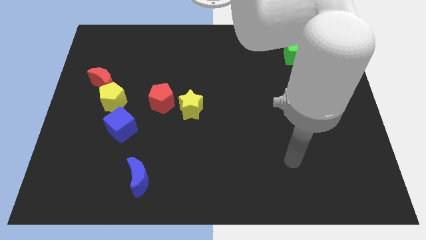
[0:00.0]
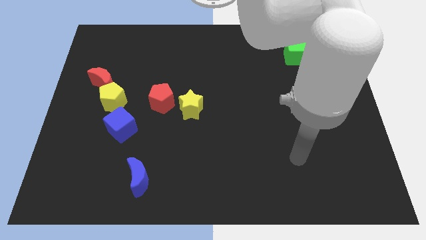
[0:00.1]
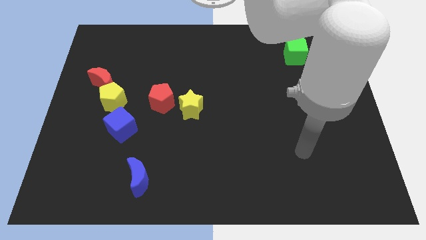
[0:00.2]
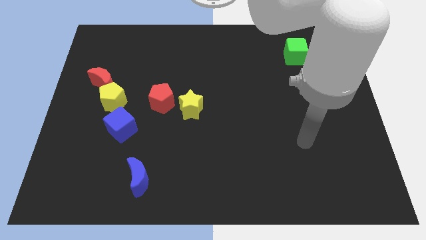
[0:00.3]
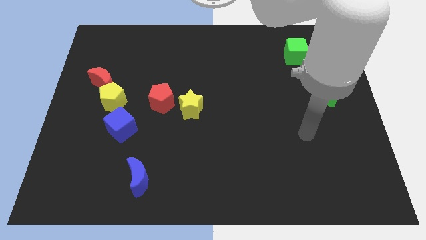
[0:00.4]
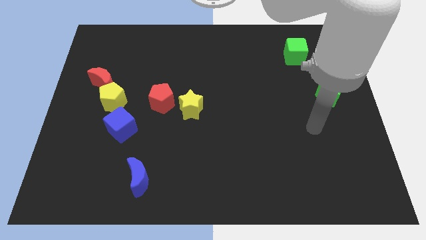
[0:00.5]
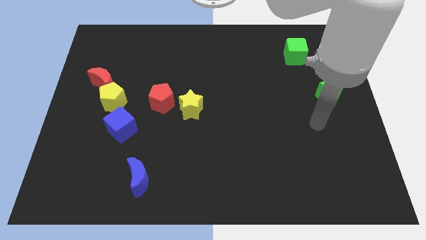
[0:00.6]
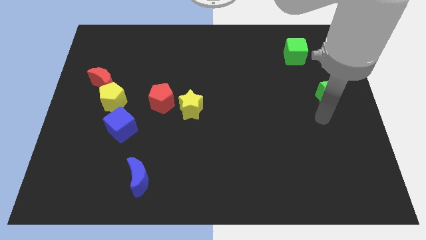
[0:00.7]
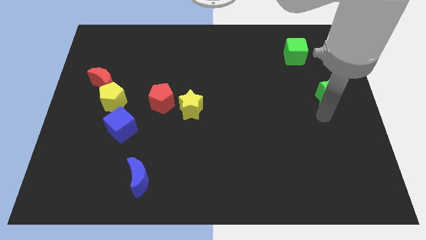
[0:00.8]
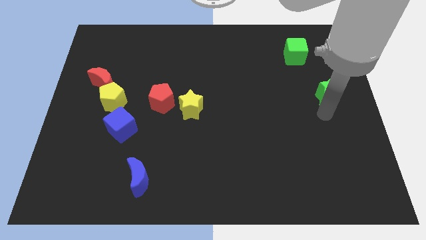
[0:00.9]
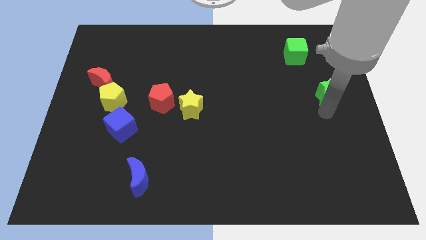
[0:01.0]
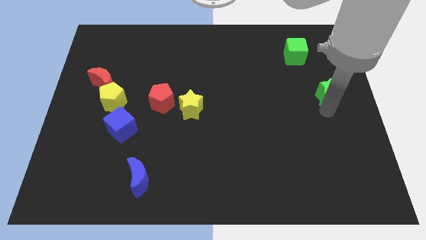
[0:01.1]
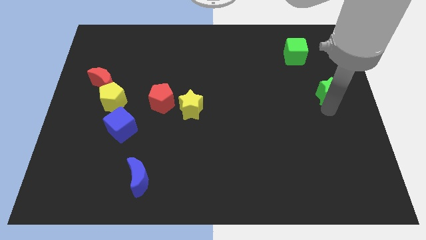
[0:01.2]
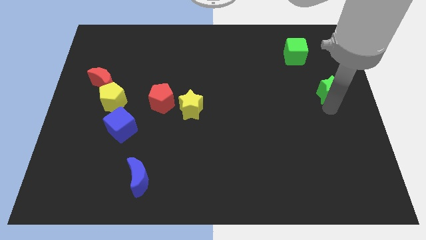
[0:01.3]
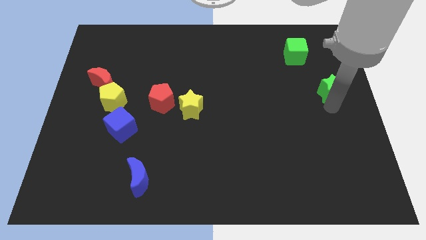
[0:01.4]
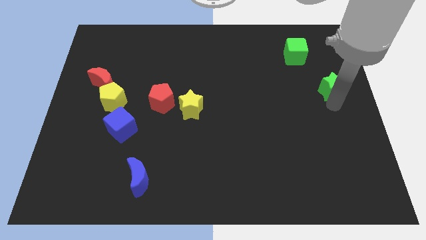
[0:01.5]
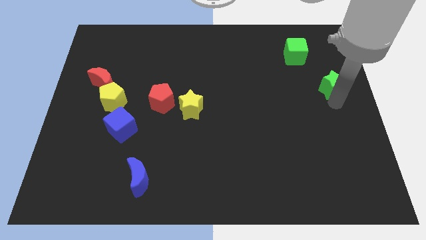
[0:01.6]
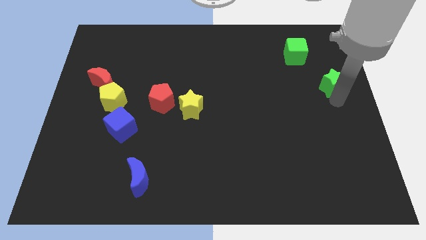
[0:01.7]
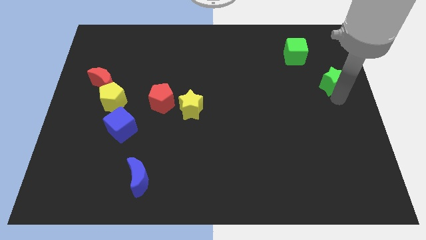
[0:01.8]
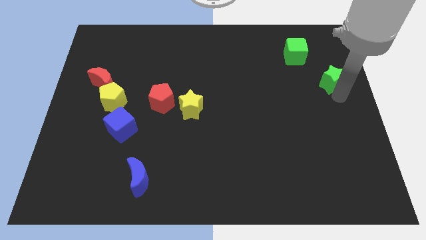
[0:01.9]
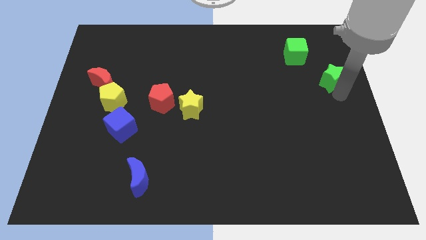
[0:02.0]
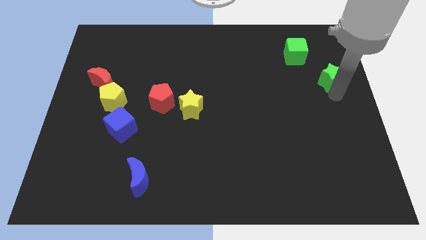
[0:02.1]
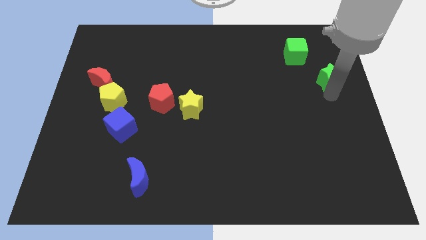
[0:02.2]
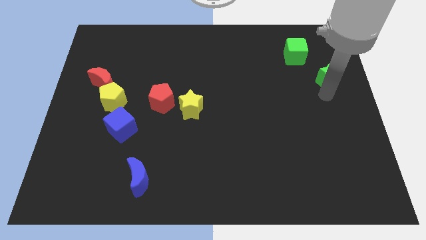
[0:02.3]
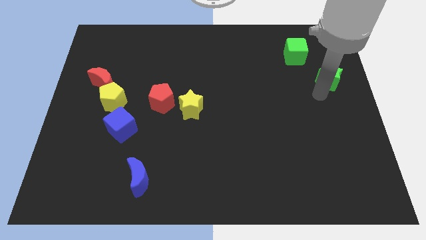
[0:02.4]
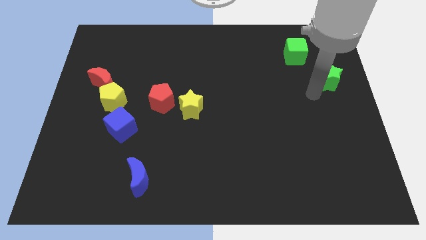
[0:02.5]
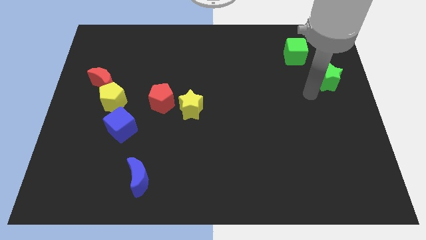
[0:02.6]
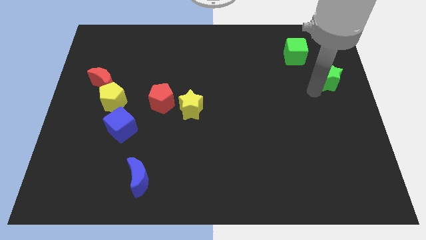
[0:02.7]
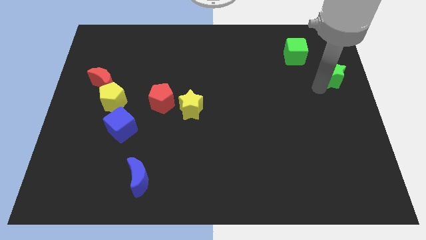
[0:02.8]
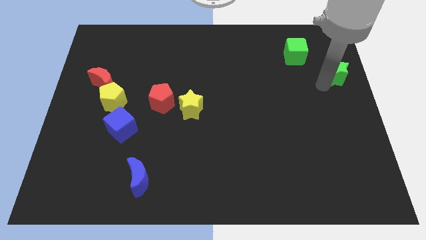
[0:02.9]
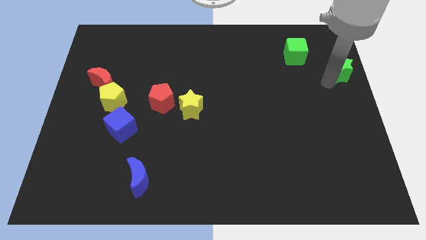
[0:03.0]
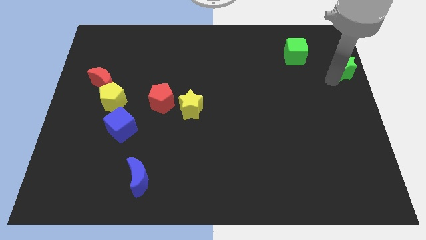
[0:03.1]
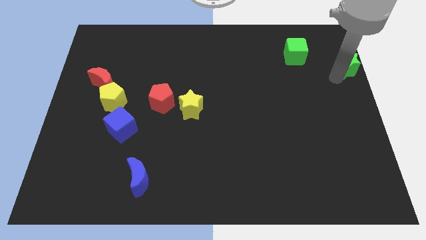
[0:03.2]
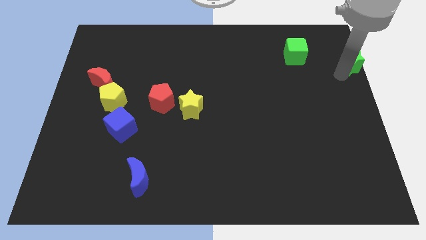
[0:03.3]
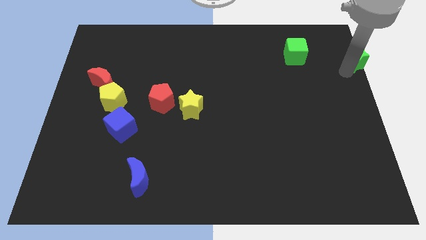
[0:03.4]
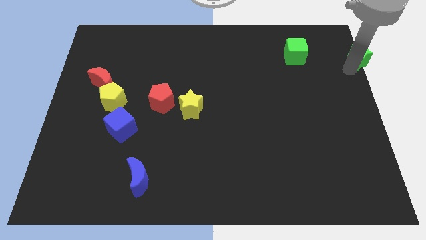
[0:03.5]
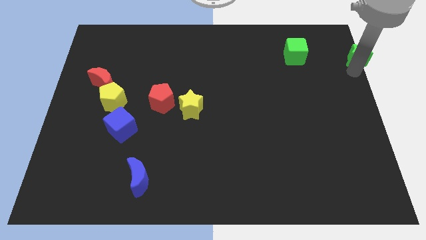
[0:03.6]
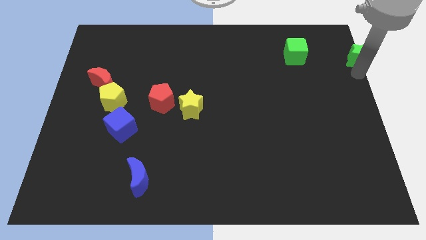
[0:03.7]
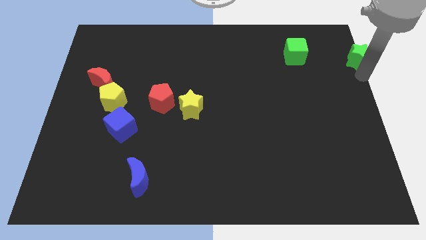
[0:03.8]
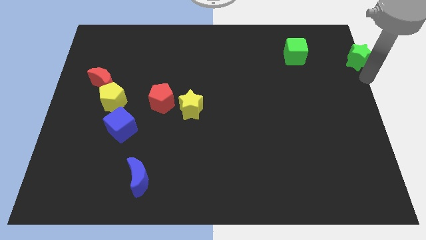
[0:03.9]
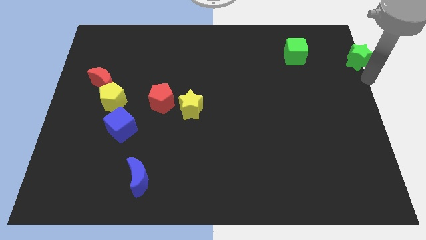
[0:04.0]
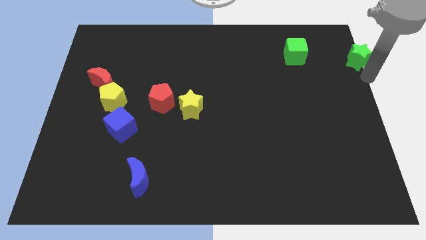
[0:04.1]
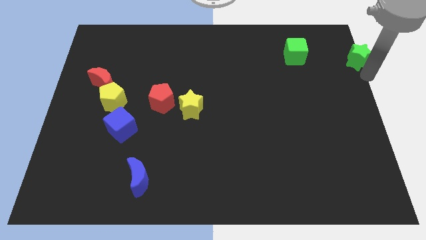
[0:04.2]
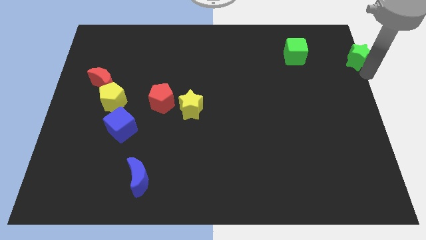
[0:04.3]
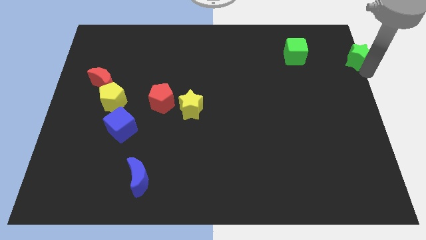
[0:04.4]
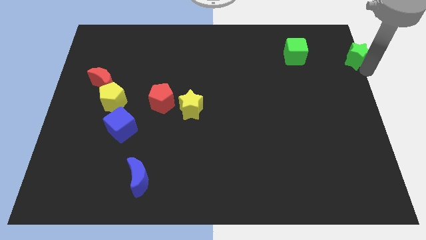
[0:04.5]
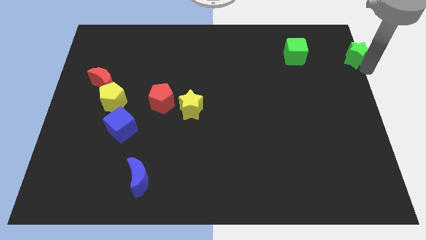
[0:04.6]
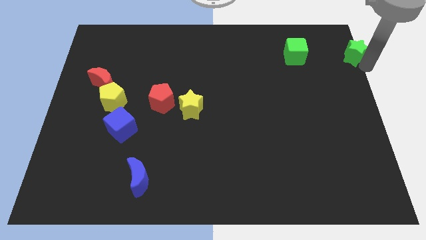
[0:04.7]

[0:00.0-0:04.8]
put the green star to the upper right corner

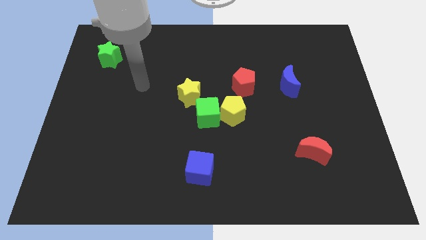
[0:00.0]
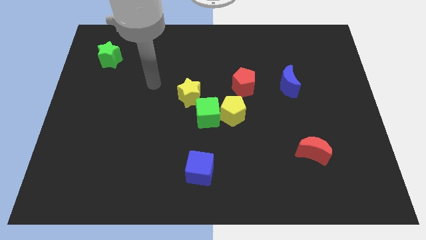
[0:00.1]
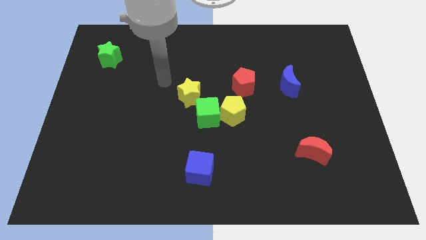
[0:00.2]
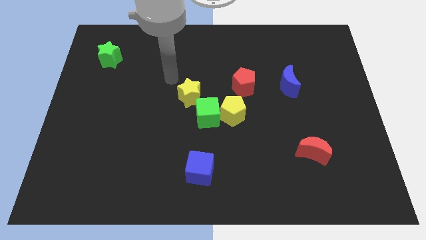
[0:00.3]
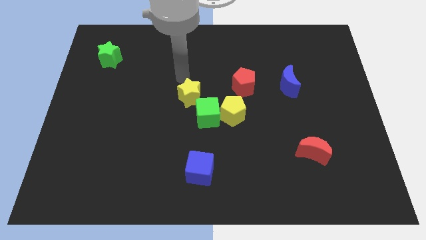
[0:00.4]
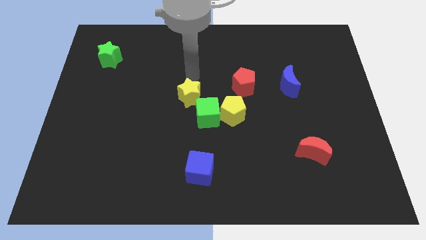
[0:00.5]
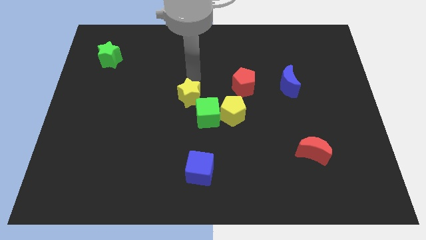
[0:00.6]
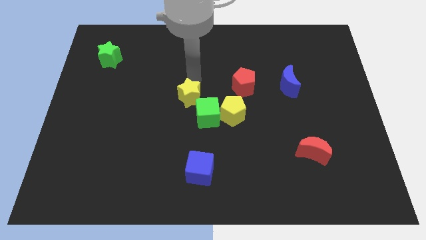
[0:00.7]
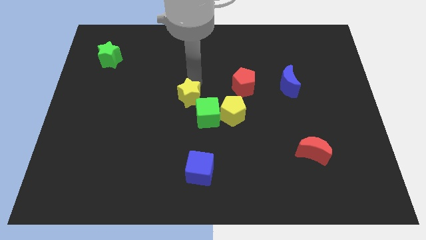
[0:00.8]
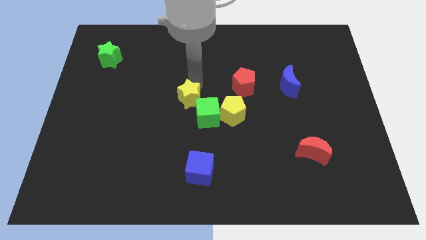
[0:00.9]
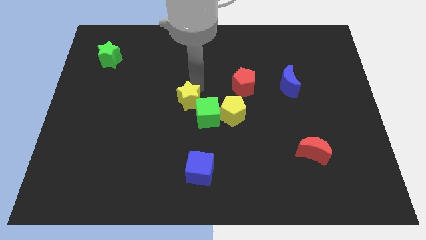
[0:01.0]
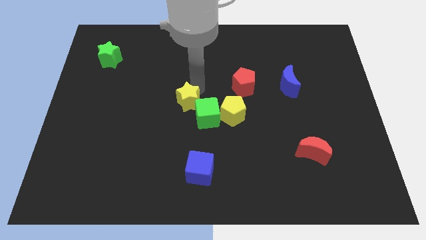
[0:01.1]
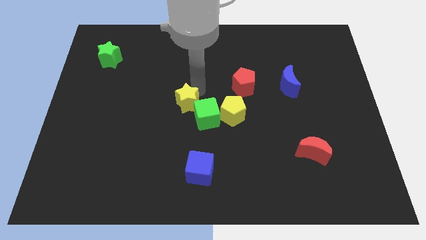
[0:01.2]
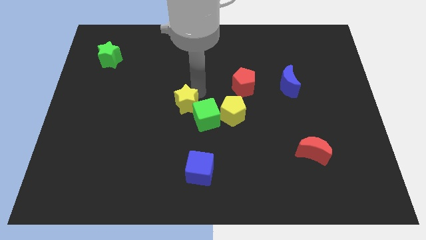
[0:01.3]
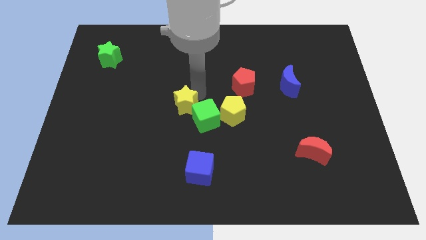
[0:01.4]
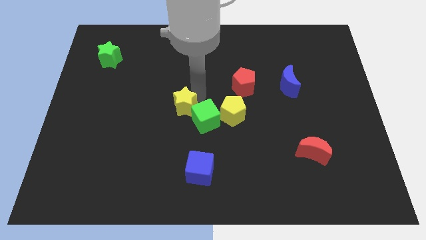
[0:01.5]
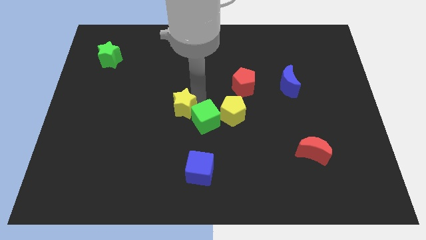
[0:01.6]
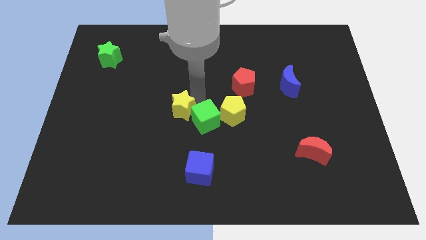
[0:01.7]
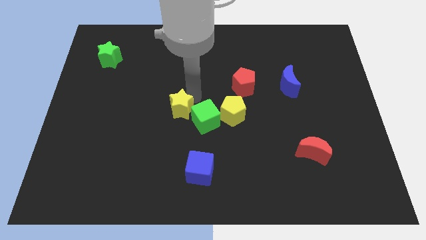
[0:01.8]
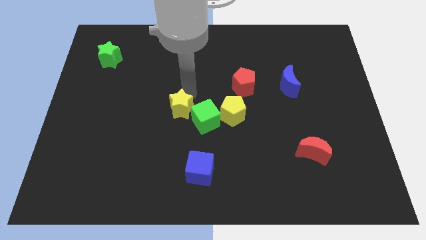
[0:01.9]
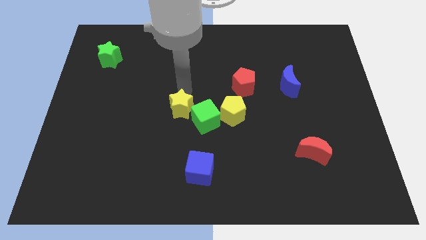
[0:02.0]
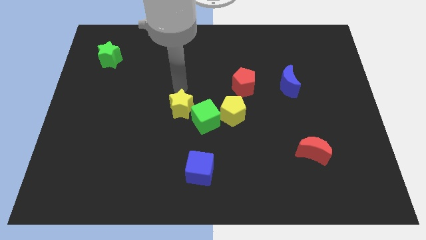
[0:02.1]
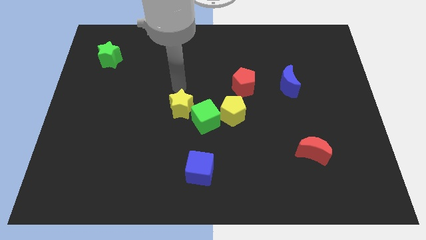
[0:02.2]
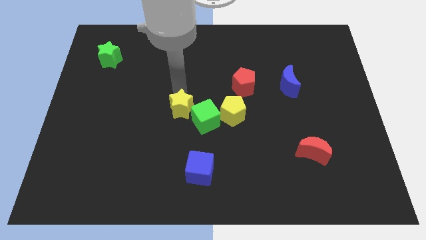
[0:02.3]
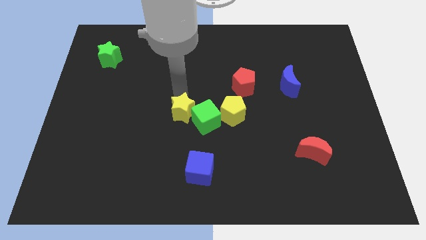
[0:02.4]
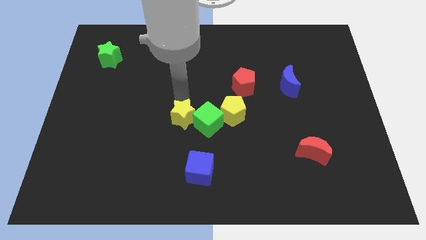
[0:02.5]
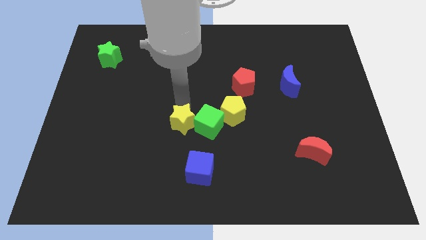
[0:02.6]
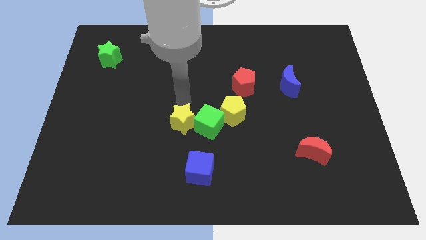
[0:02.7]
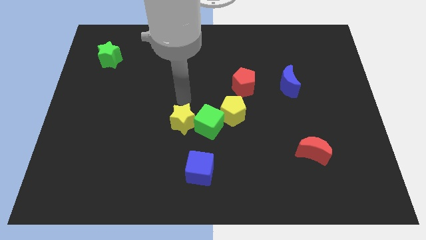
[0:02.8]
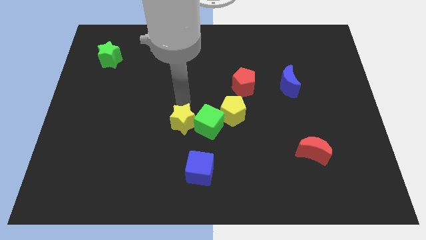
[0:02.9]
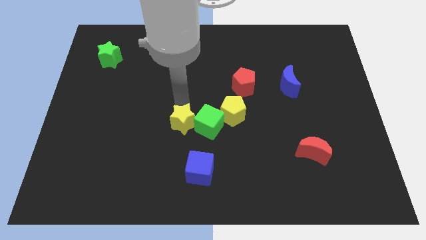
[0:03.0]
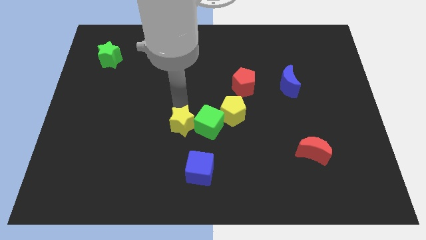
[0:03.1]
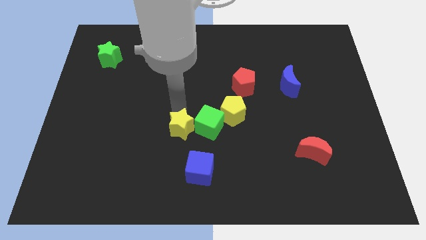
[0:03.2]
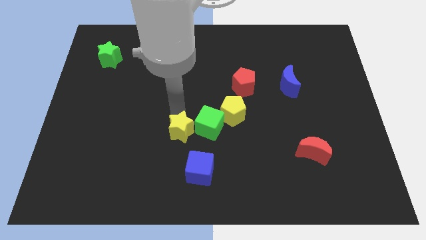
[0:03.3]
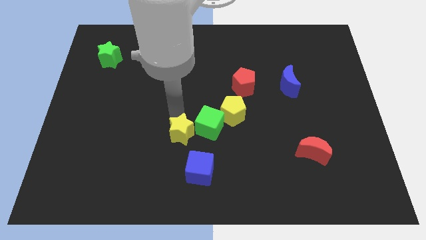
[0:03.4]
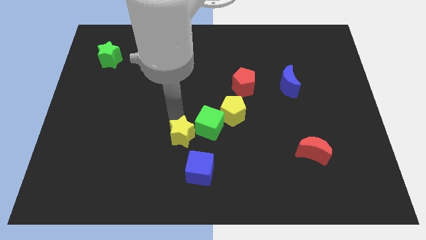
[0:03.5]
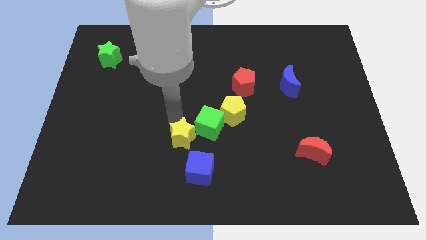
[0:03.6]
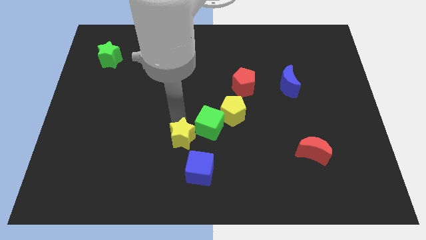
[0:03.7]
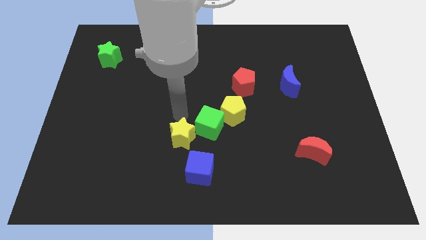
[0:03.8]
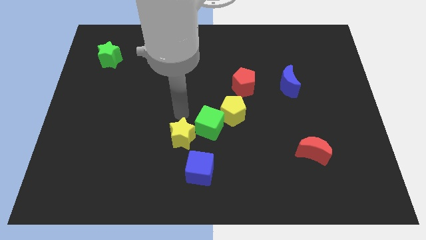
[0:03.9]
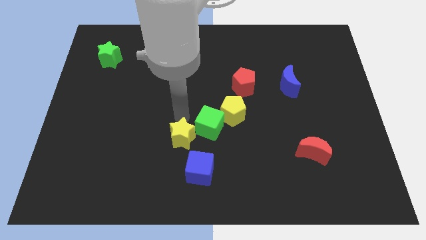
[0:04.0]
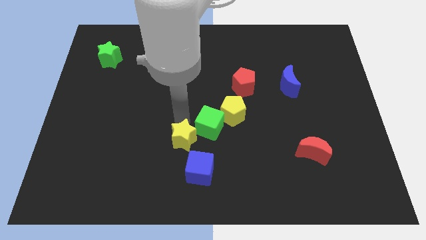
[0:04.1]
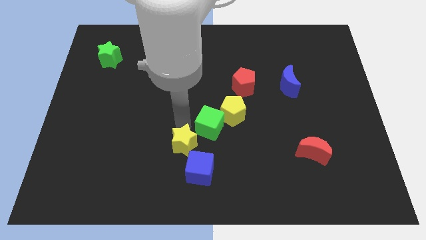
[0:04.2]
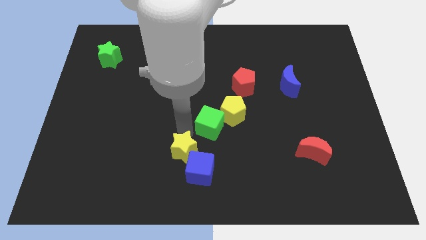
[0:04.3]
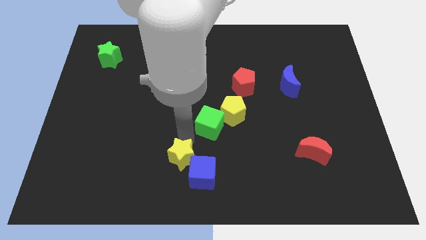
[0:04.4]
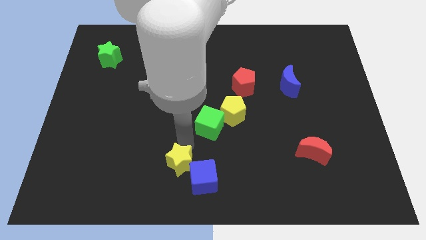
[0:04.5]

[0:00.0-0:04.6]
put the yellow star to the bottom side
